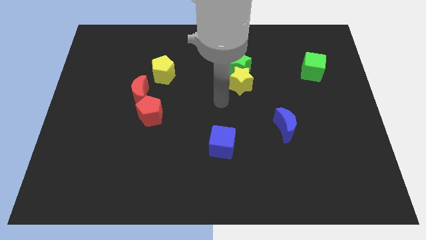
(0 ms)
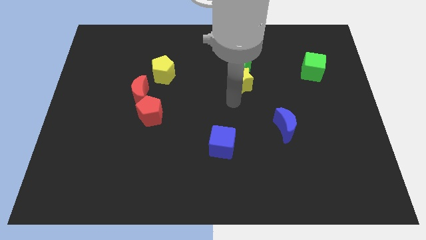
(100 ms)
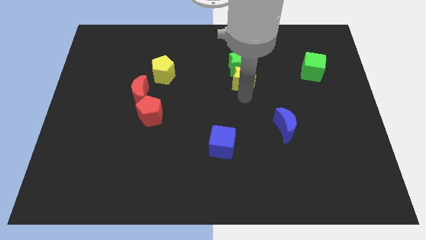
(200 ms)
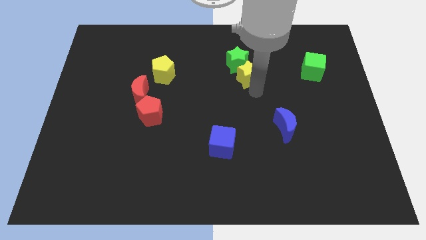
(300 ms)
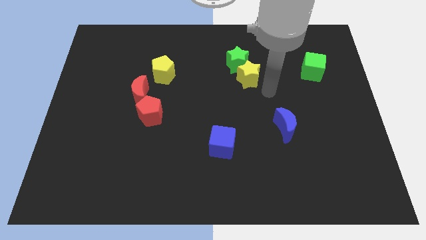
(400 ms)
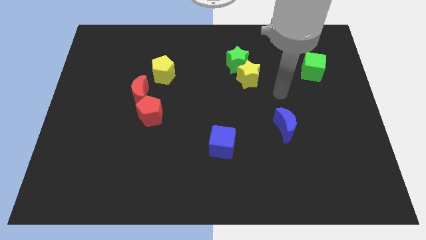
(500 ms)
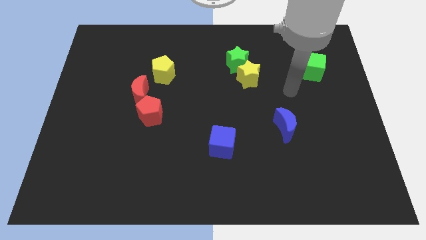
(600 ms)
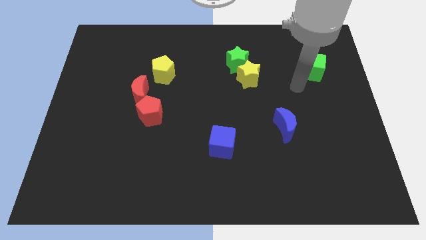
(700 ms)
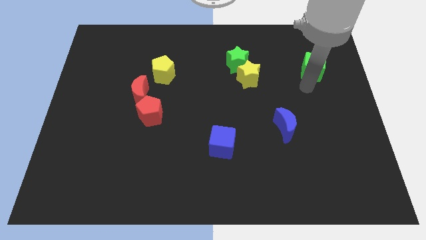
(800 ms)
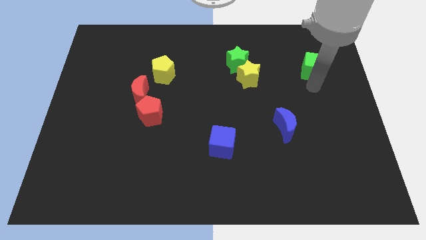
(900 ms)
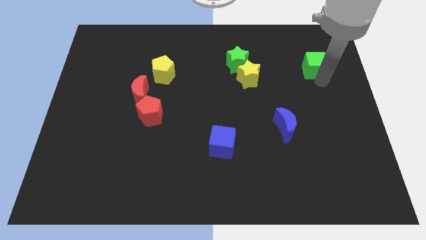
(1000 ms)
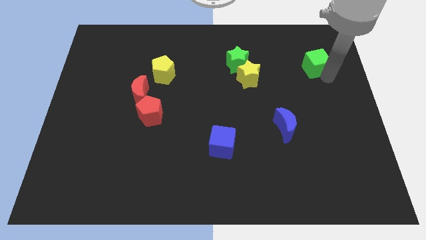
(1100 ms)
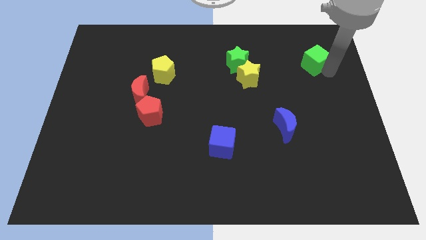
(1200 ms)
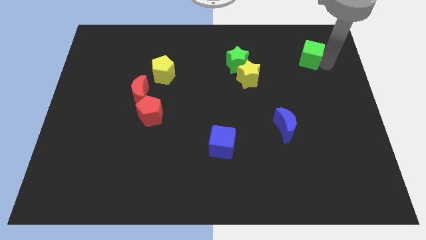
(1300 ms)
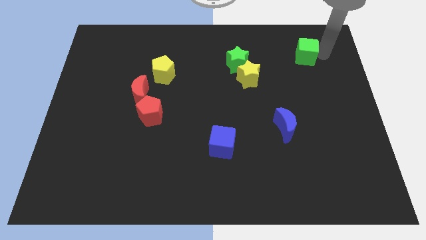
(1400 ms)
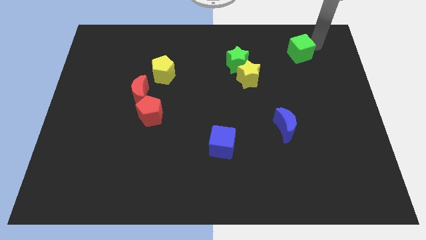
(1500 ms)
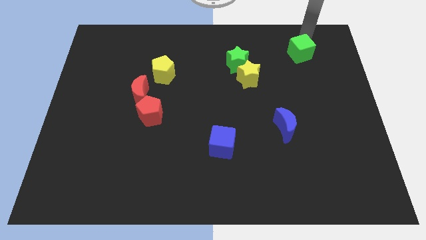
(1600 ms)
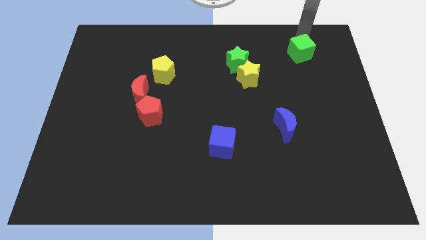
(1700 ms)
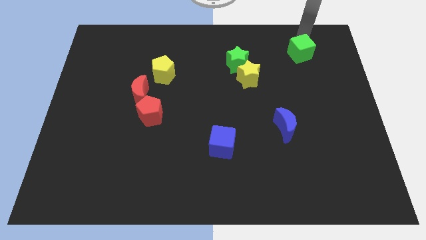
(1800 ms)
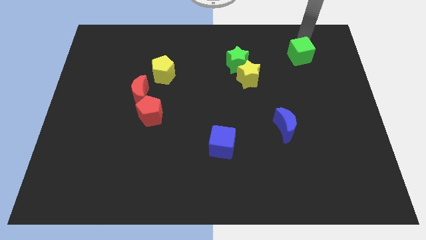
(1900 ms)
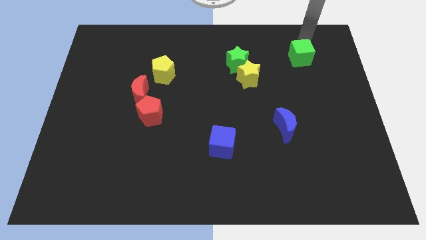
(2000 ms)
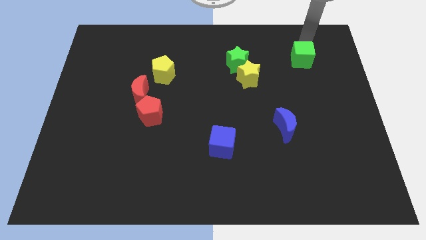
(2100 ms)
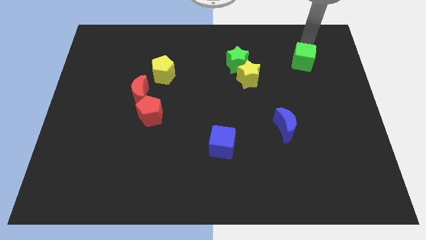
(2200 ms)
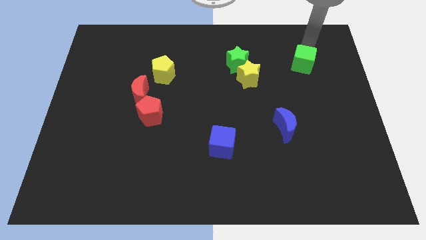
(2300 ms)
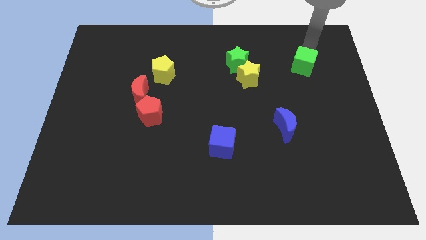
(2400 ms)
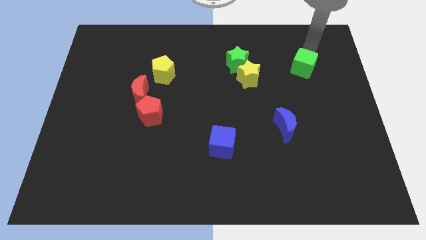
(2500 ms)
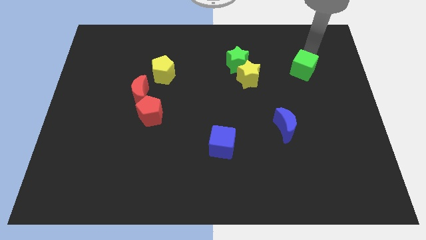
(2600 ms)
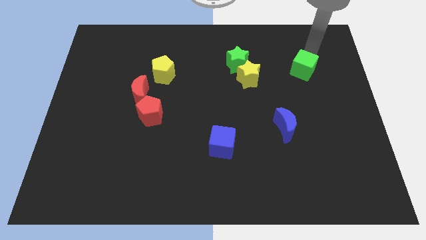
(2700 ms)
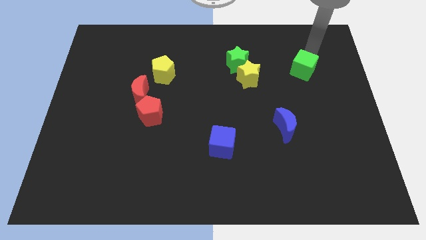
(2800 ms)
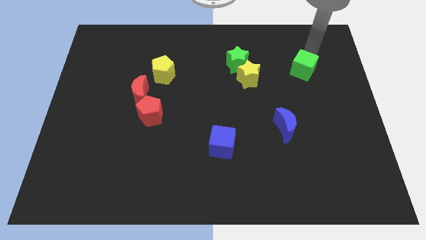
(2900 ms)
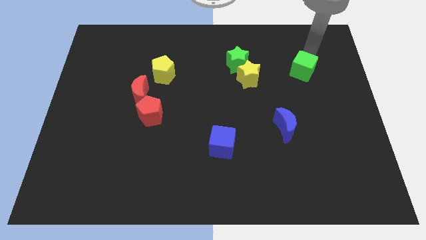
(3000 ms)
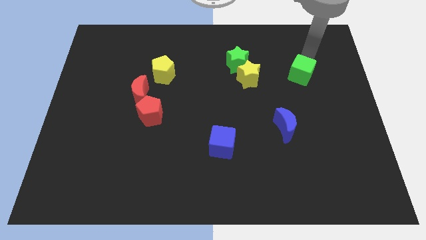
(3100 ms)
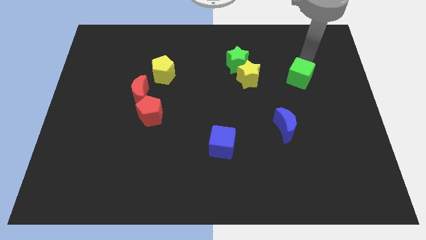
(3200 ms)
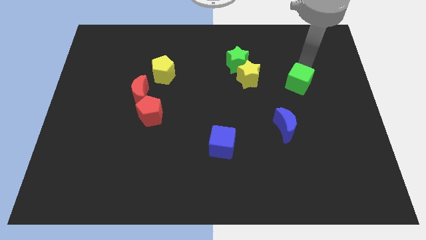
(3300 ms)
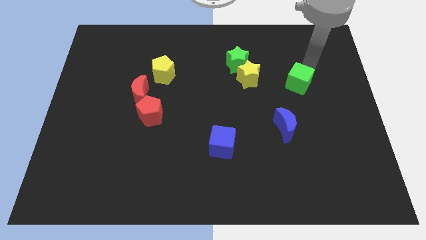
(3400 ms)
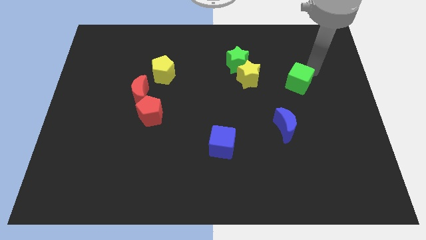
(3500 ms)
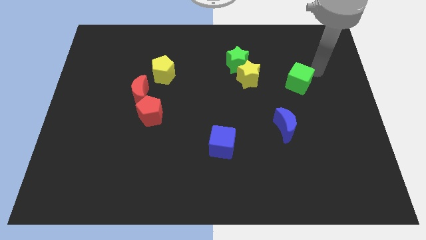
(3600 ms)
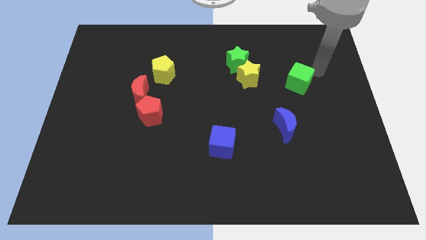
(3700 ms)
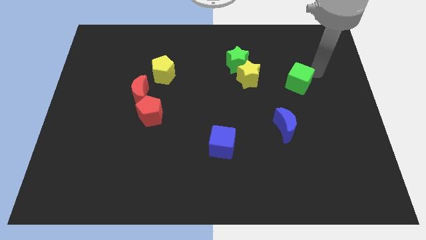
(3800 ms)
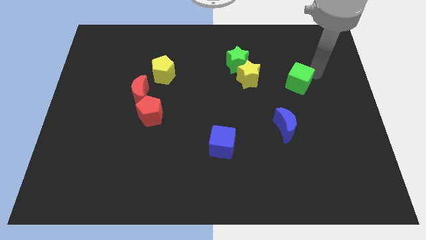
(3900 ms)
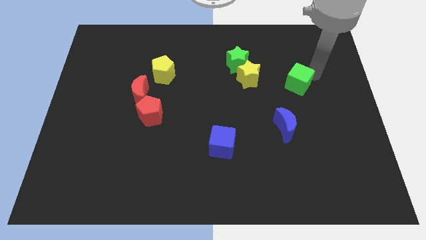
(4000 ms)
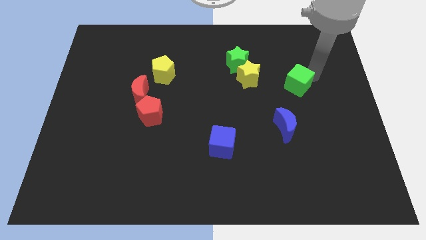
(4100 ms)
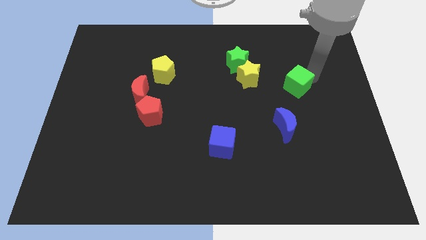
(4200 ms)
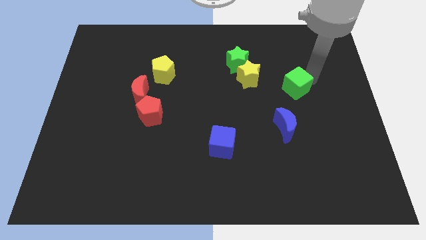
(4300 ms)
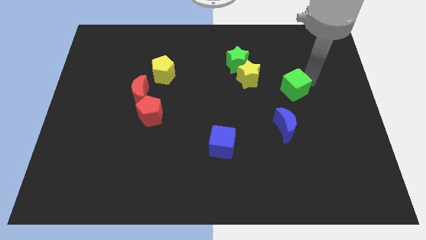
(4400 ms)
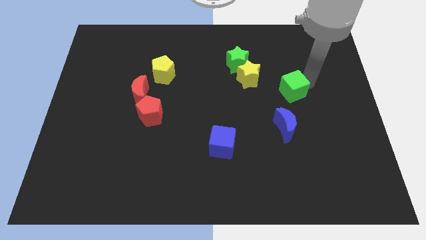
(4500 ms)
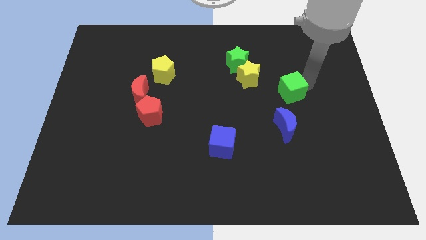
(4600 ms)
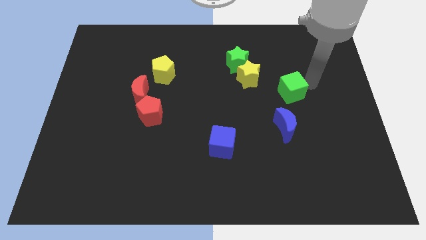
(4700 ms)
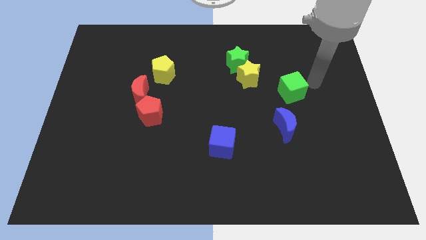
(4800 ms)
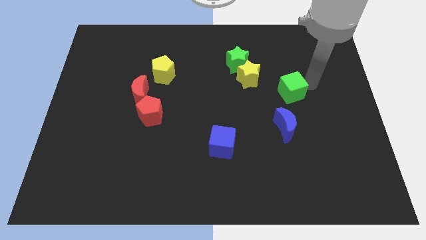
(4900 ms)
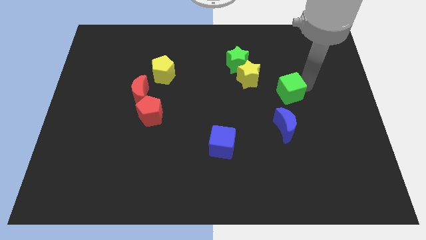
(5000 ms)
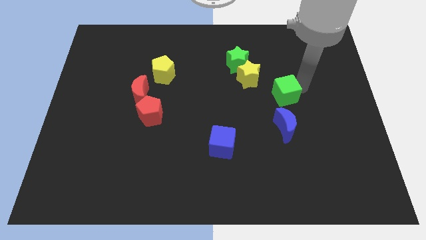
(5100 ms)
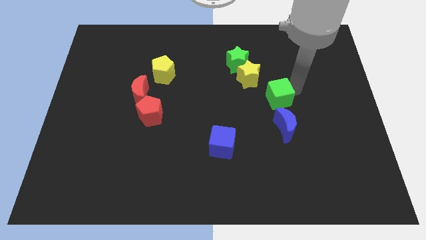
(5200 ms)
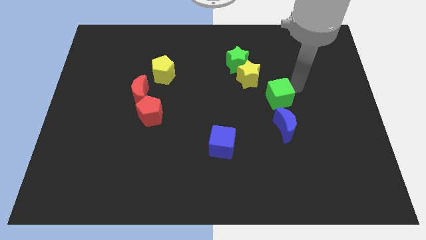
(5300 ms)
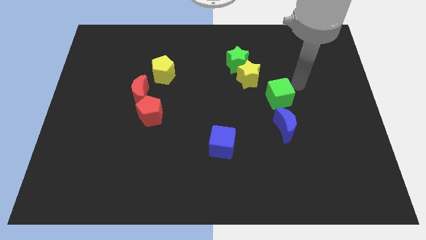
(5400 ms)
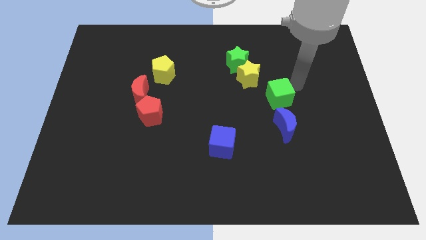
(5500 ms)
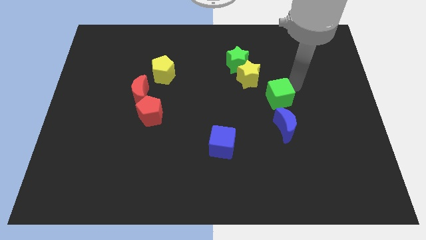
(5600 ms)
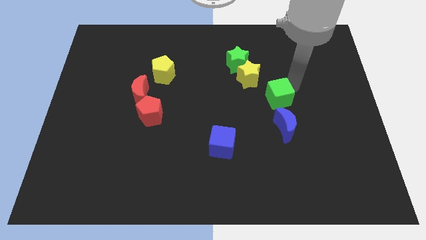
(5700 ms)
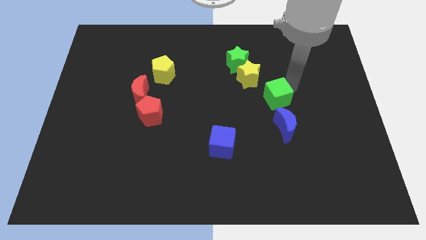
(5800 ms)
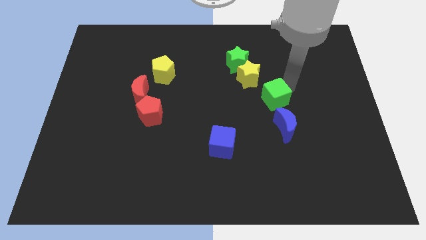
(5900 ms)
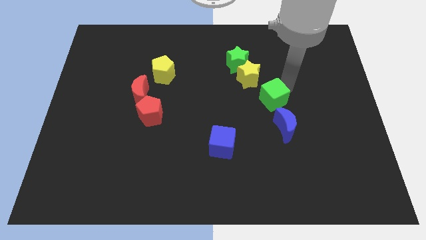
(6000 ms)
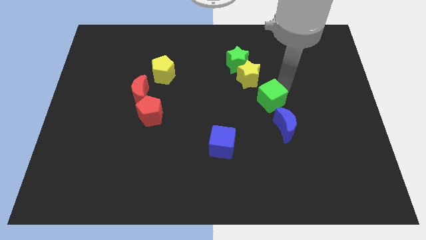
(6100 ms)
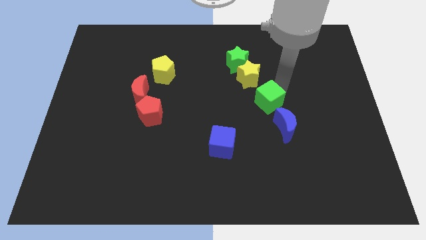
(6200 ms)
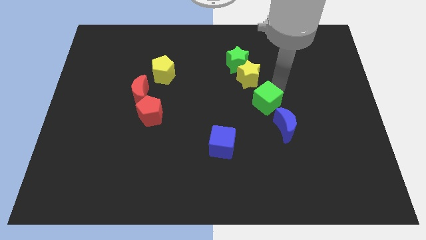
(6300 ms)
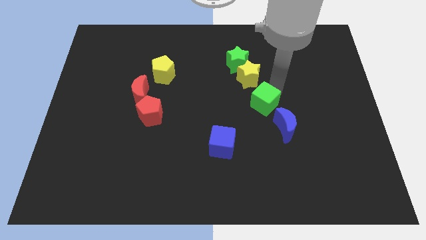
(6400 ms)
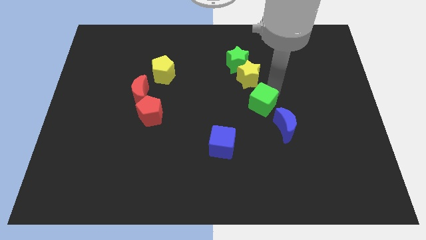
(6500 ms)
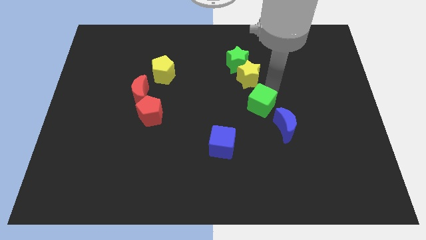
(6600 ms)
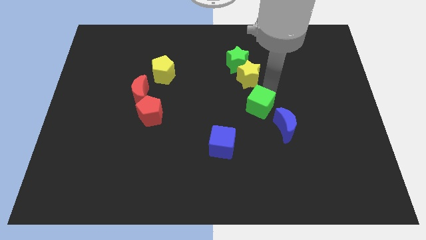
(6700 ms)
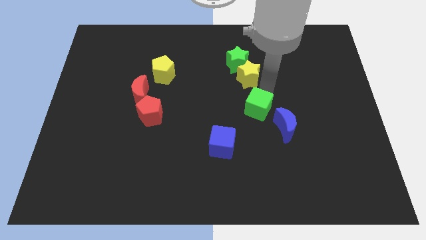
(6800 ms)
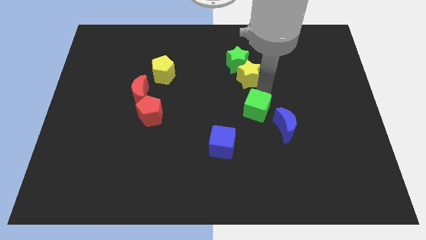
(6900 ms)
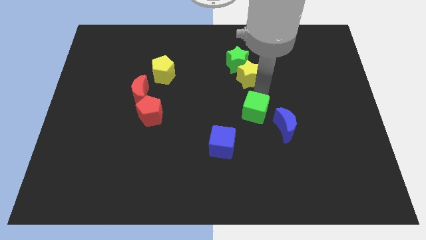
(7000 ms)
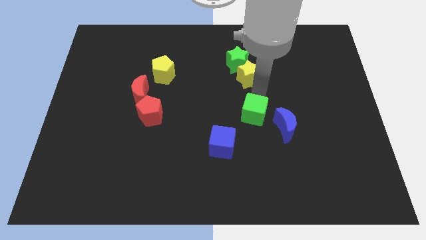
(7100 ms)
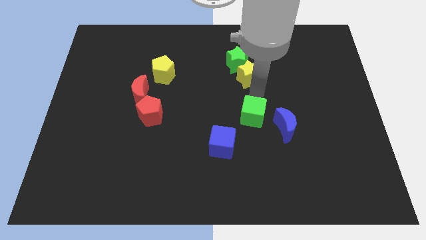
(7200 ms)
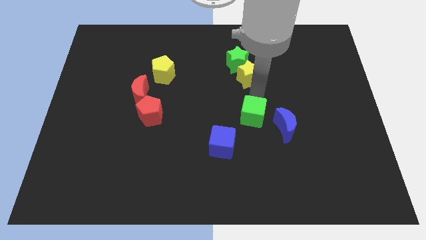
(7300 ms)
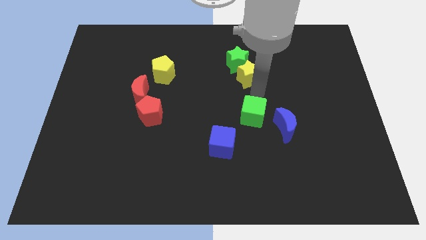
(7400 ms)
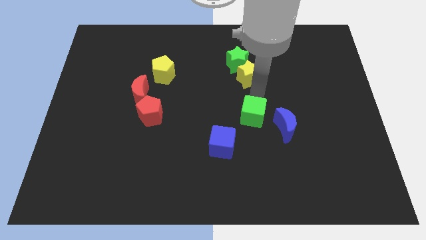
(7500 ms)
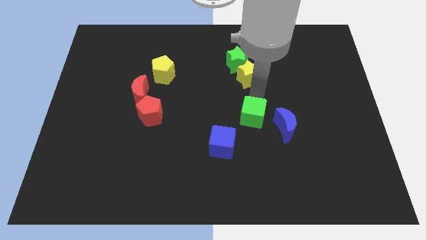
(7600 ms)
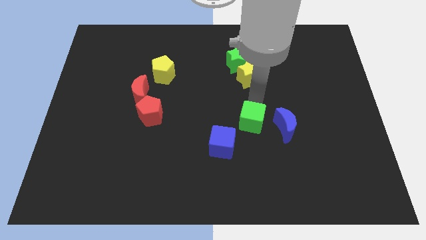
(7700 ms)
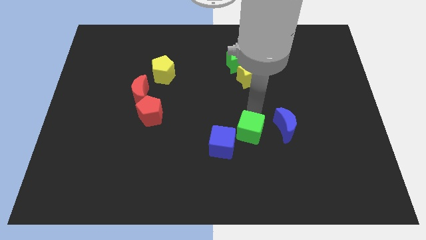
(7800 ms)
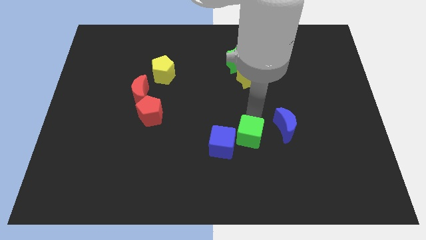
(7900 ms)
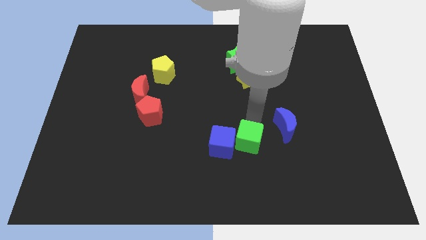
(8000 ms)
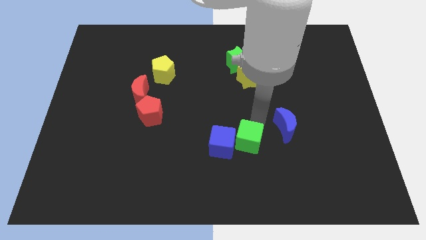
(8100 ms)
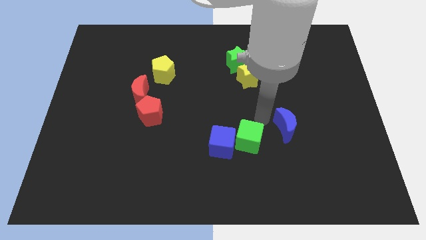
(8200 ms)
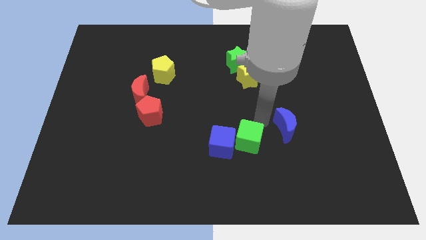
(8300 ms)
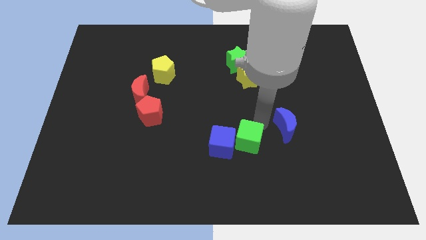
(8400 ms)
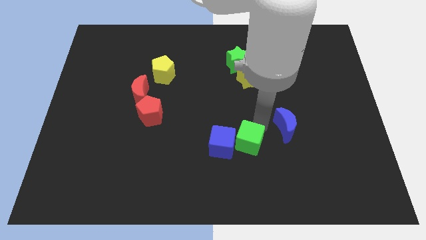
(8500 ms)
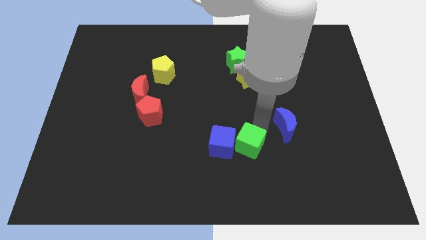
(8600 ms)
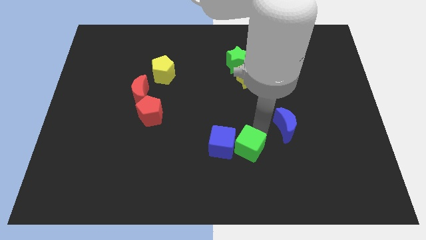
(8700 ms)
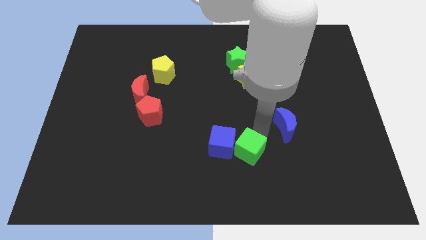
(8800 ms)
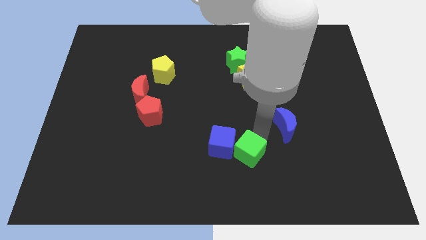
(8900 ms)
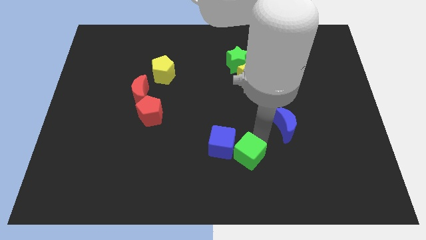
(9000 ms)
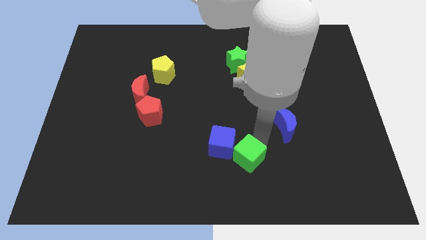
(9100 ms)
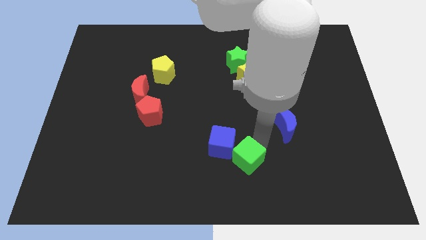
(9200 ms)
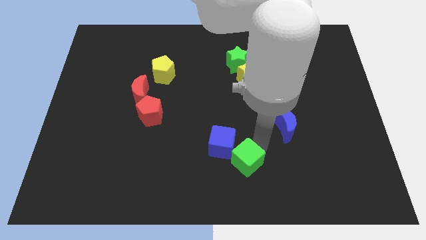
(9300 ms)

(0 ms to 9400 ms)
slide the green cube to the bottom
